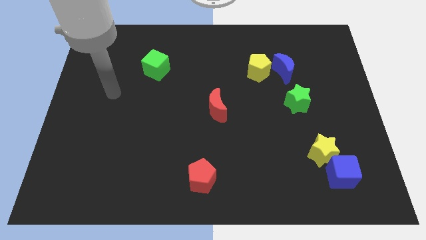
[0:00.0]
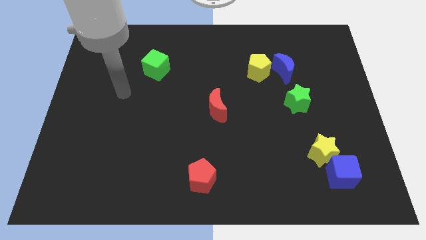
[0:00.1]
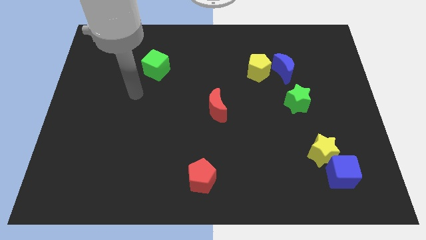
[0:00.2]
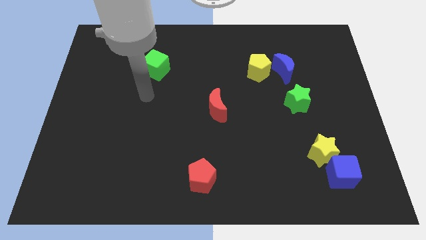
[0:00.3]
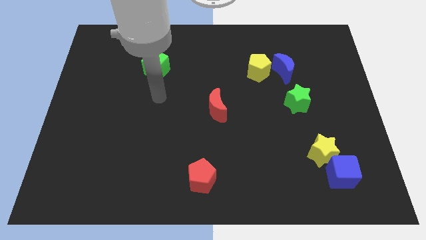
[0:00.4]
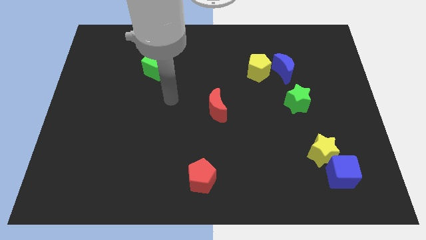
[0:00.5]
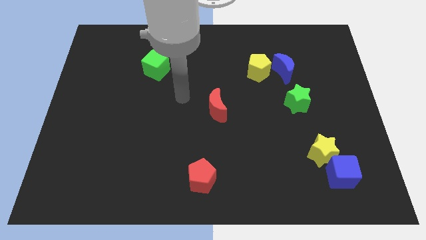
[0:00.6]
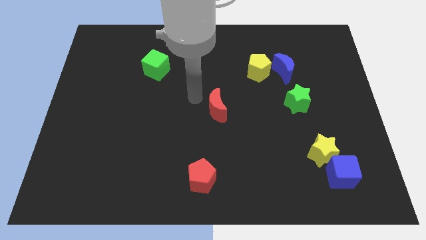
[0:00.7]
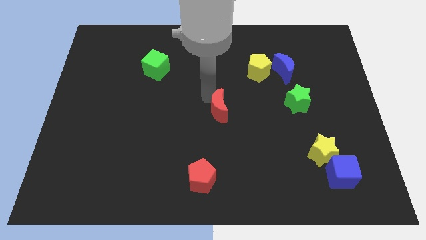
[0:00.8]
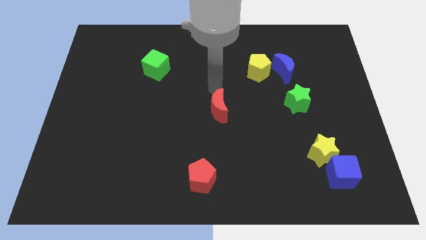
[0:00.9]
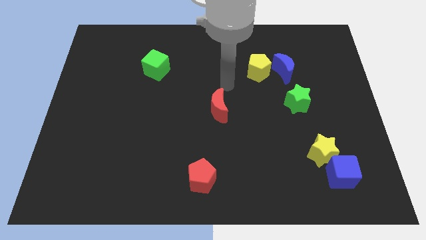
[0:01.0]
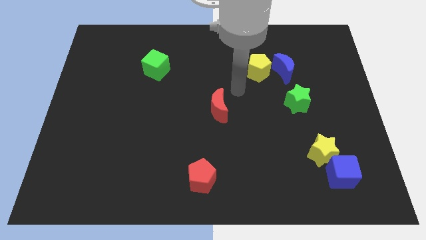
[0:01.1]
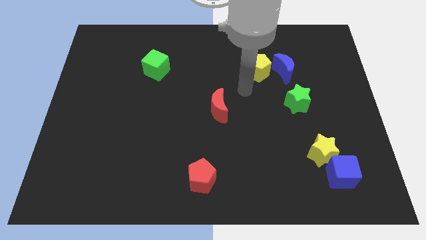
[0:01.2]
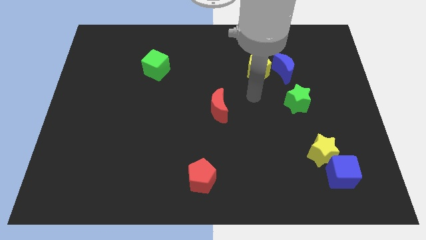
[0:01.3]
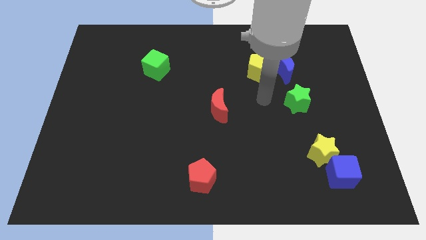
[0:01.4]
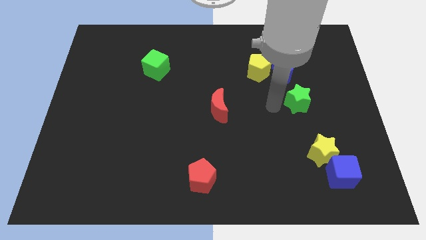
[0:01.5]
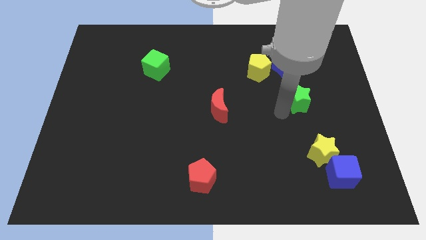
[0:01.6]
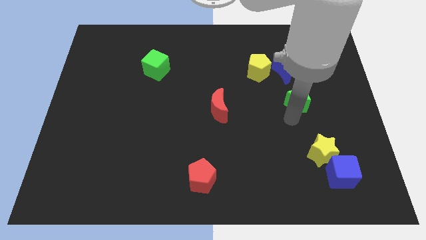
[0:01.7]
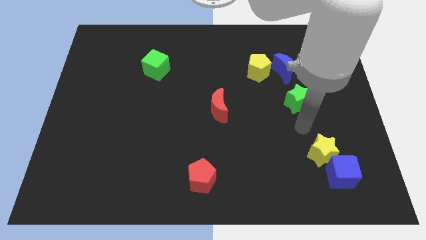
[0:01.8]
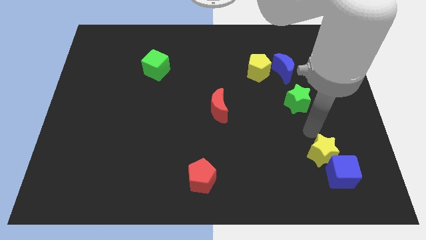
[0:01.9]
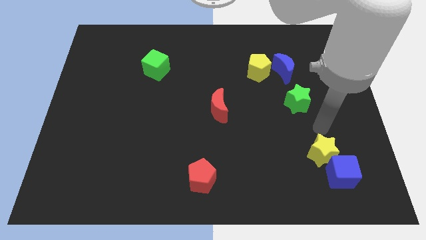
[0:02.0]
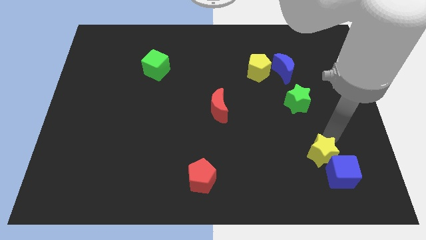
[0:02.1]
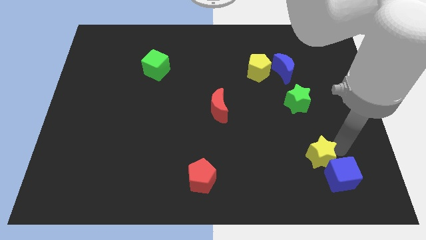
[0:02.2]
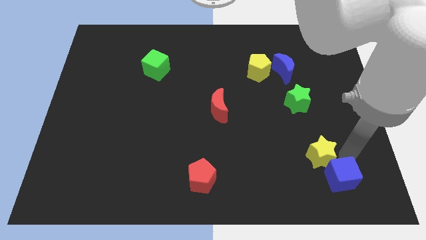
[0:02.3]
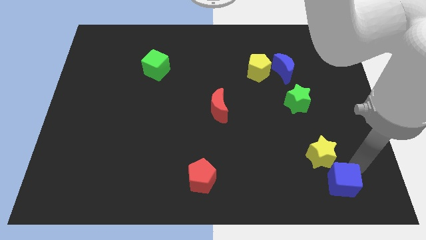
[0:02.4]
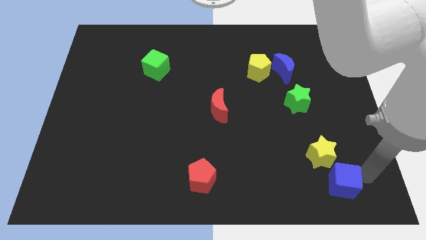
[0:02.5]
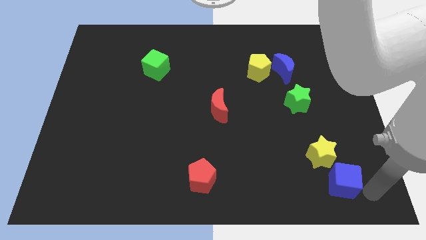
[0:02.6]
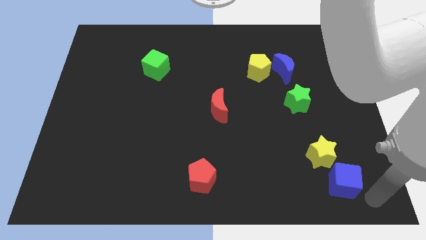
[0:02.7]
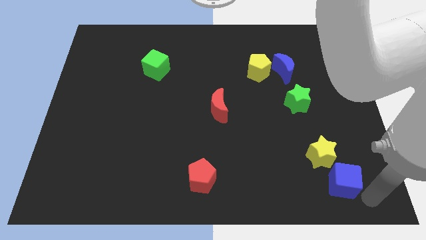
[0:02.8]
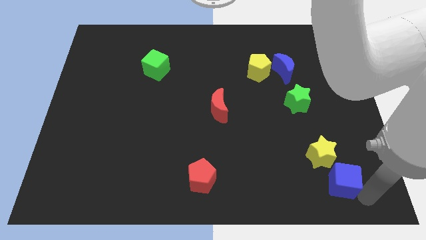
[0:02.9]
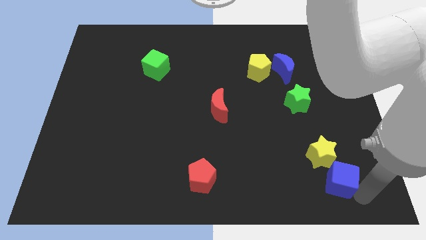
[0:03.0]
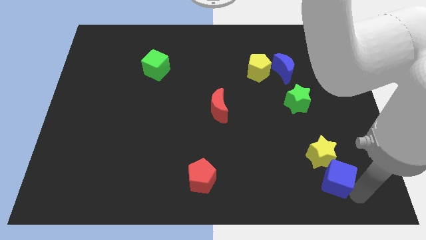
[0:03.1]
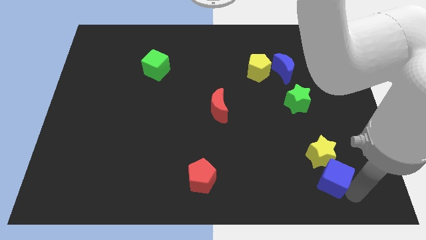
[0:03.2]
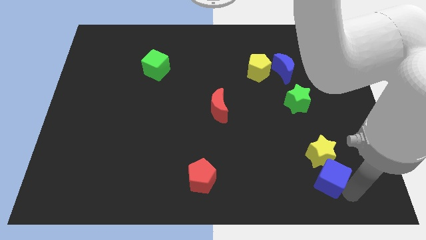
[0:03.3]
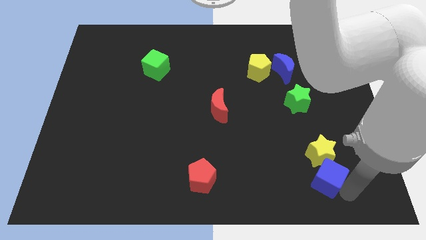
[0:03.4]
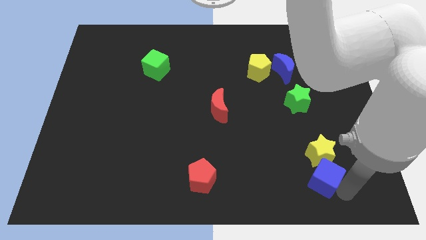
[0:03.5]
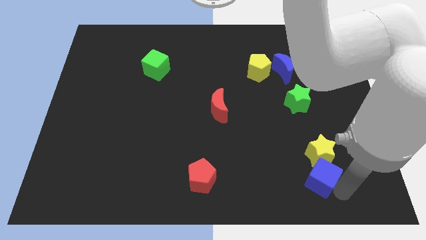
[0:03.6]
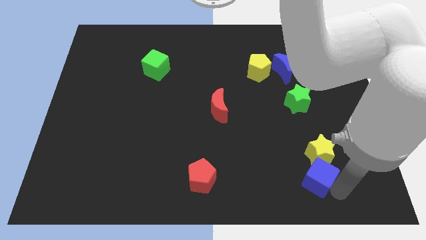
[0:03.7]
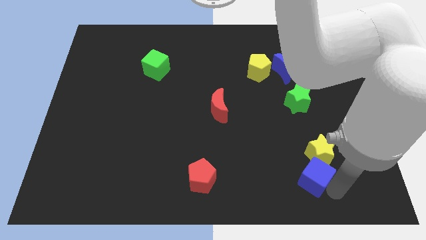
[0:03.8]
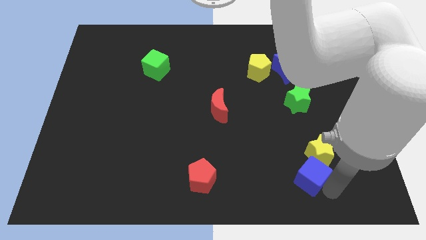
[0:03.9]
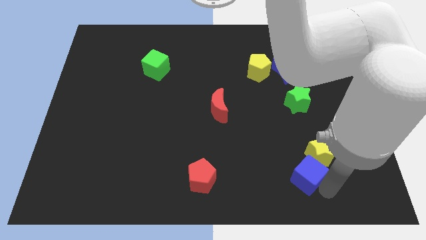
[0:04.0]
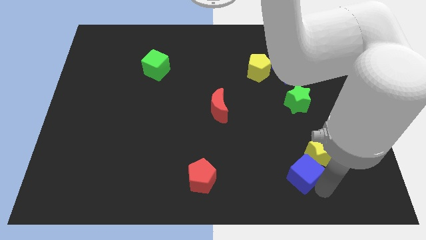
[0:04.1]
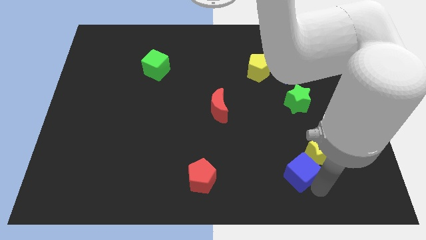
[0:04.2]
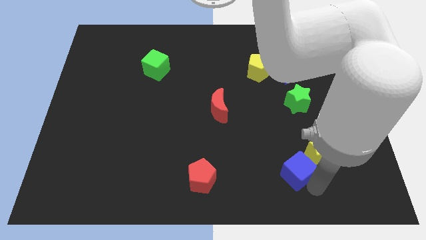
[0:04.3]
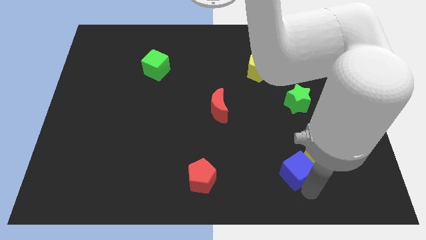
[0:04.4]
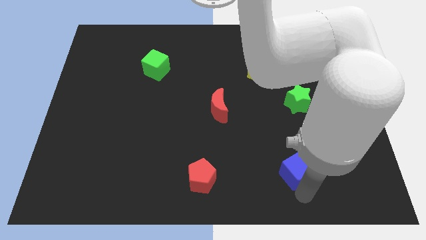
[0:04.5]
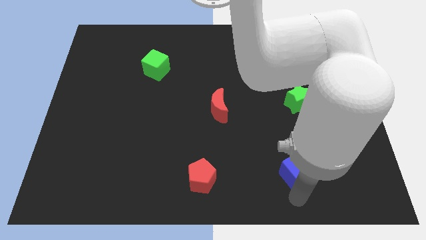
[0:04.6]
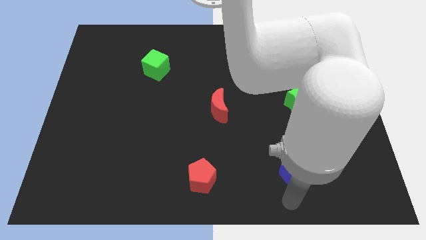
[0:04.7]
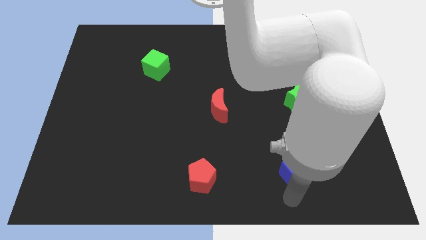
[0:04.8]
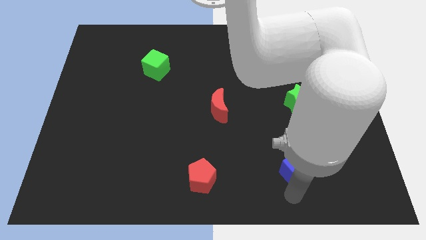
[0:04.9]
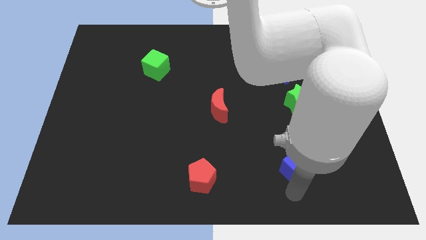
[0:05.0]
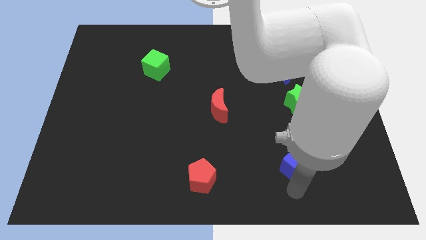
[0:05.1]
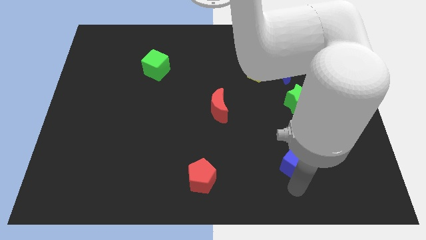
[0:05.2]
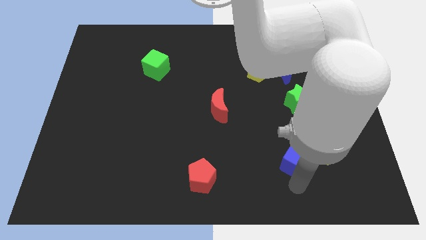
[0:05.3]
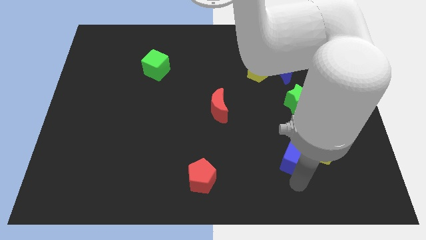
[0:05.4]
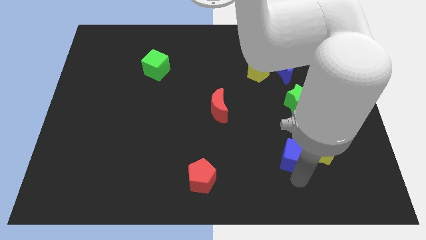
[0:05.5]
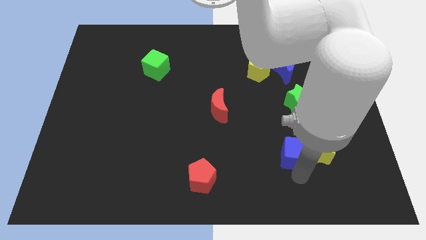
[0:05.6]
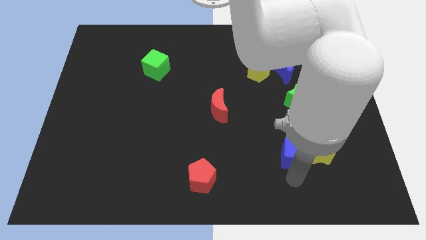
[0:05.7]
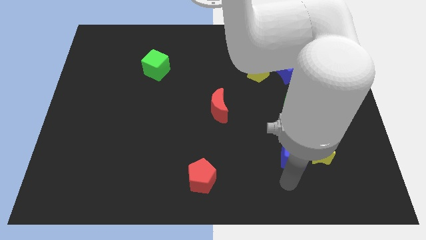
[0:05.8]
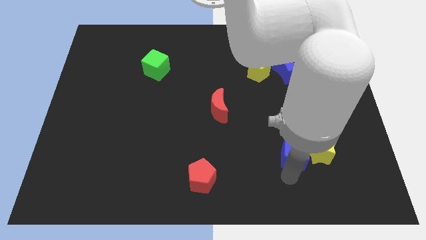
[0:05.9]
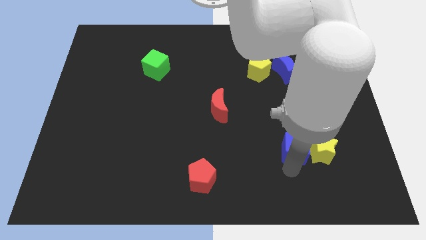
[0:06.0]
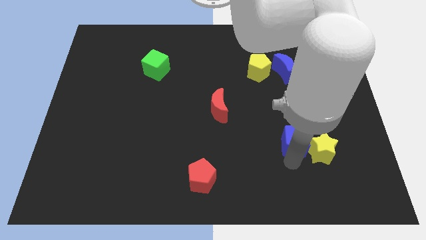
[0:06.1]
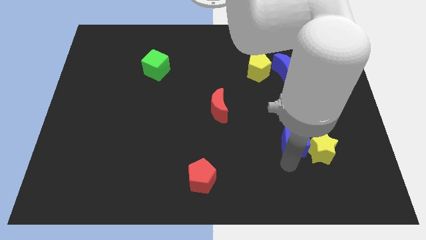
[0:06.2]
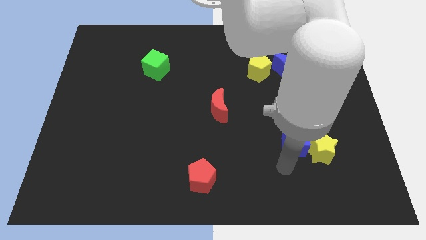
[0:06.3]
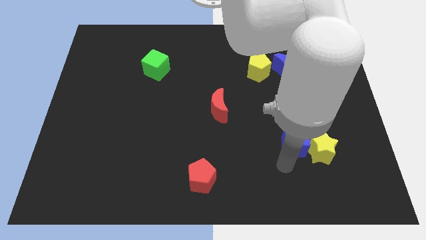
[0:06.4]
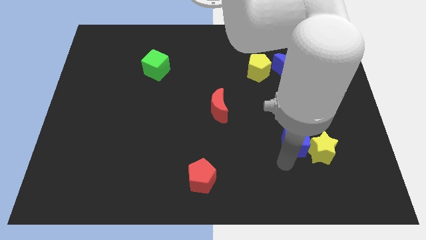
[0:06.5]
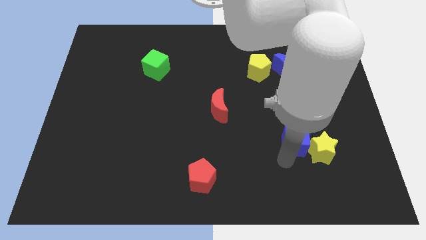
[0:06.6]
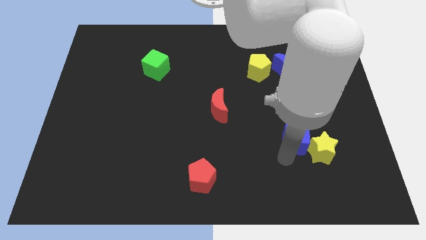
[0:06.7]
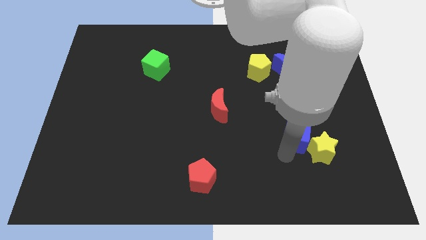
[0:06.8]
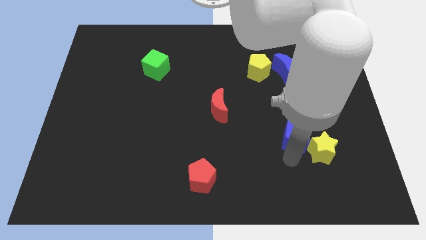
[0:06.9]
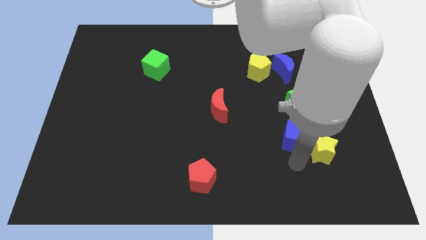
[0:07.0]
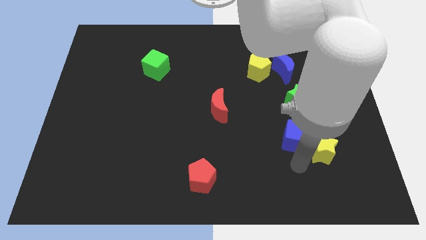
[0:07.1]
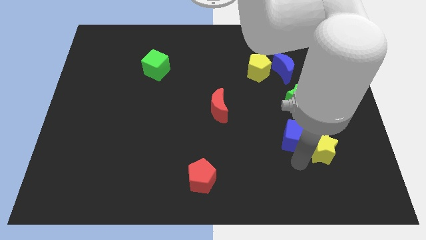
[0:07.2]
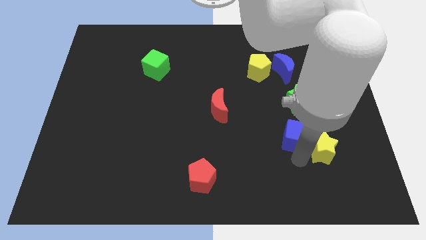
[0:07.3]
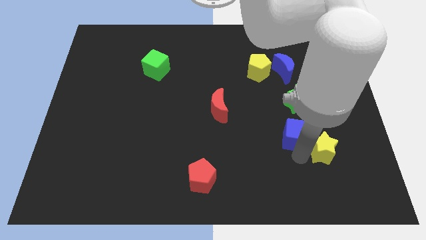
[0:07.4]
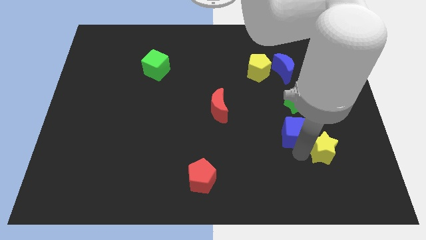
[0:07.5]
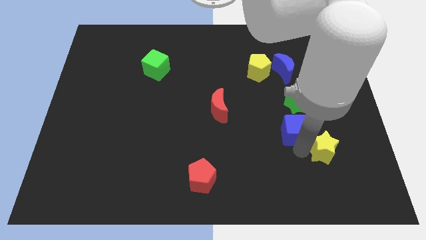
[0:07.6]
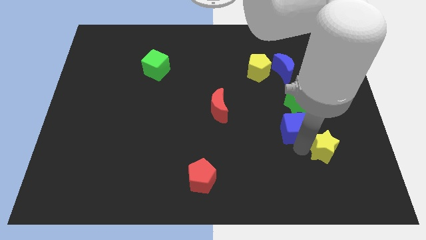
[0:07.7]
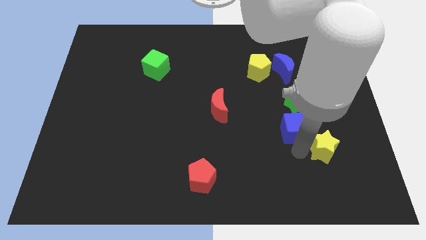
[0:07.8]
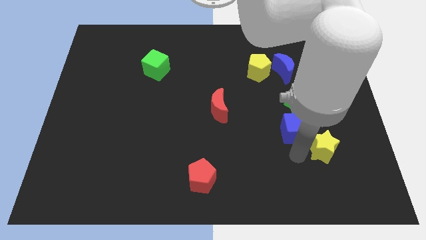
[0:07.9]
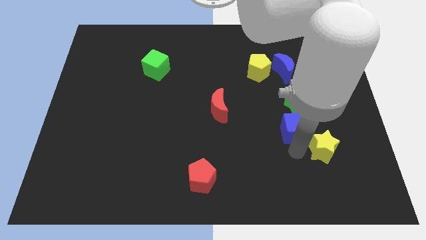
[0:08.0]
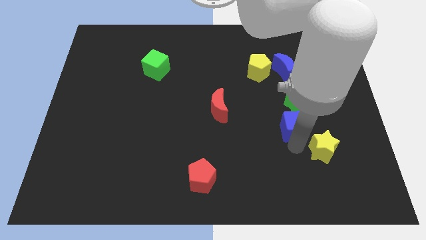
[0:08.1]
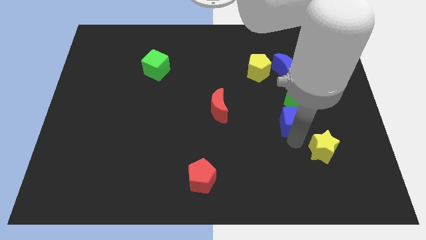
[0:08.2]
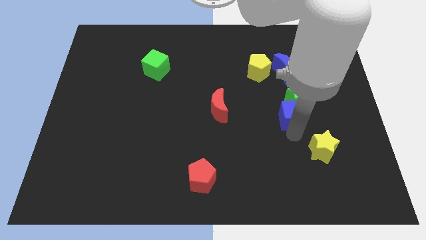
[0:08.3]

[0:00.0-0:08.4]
put the blue cube to the bottom side of the blue moon
